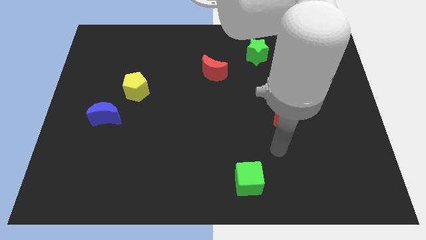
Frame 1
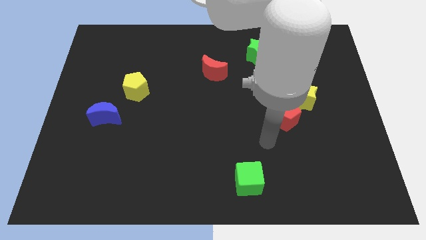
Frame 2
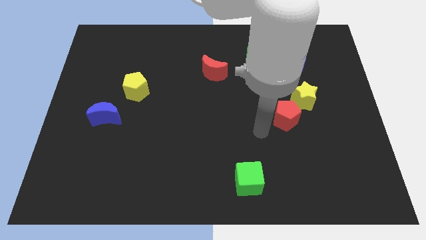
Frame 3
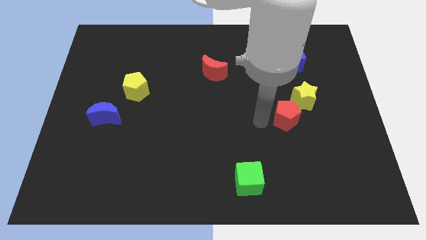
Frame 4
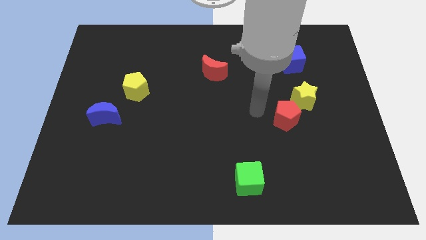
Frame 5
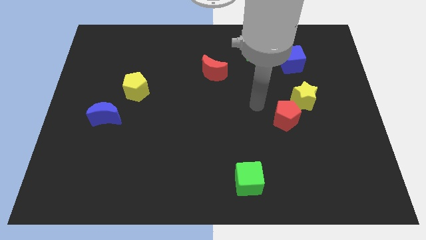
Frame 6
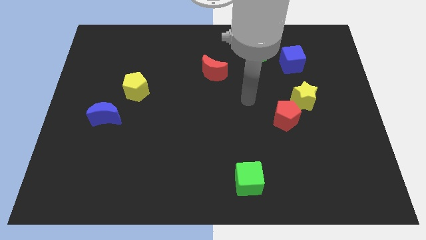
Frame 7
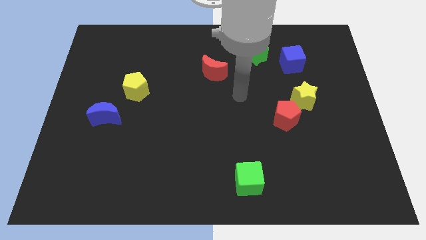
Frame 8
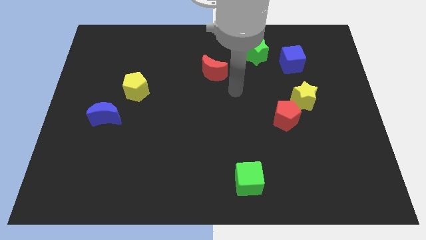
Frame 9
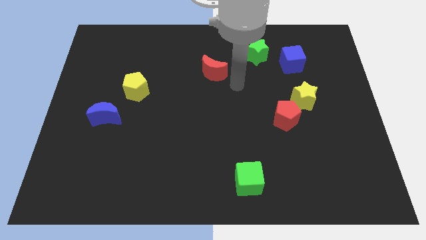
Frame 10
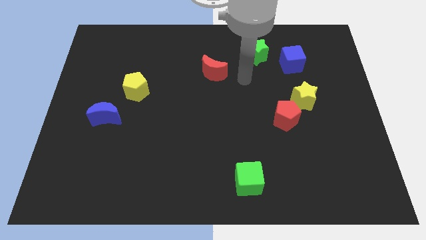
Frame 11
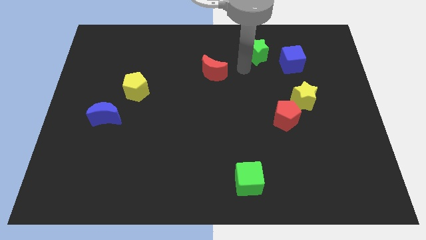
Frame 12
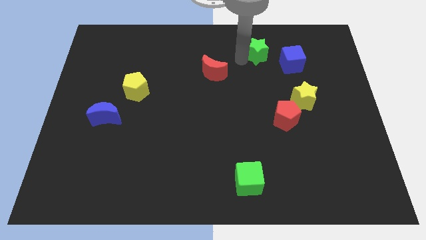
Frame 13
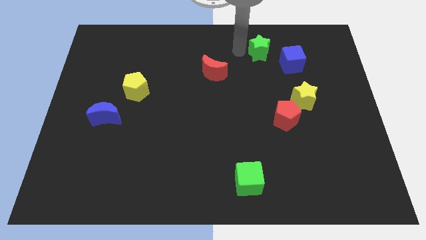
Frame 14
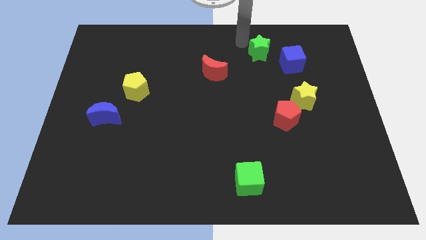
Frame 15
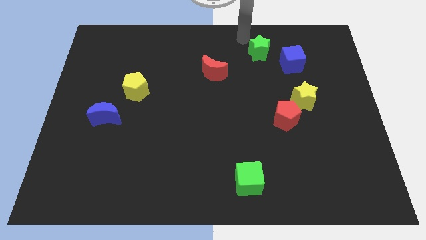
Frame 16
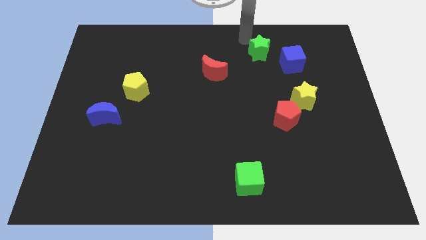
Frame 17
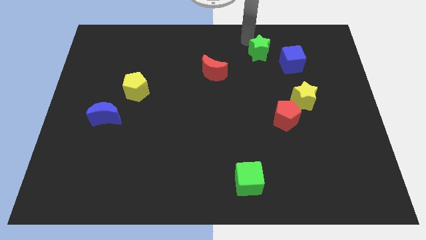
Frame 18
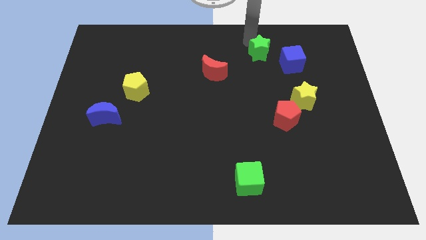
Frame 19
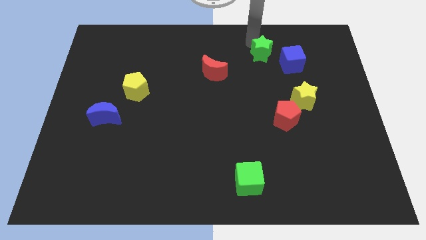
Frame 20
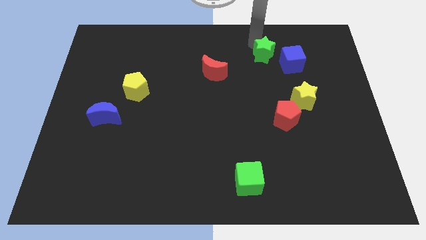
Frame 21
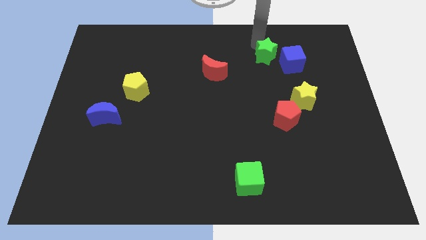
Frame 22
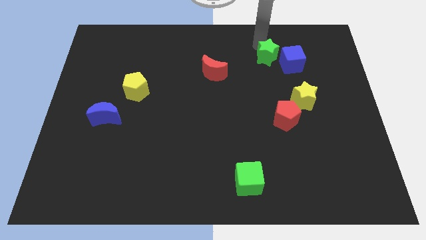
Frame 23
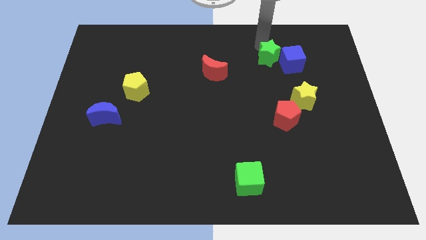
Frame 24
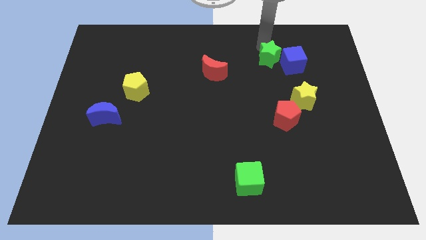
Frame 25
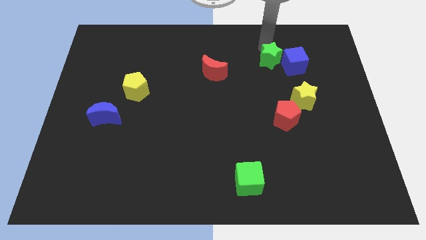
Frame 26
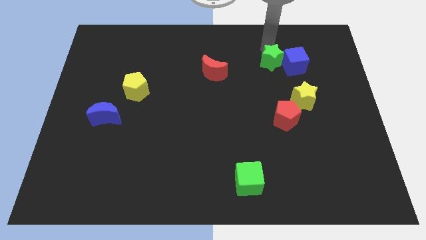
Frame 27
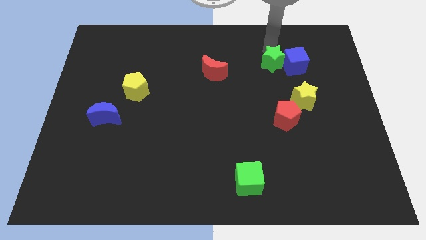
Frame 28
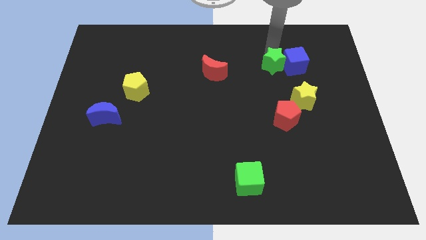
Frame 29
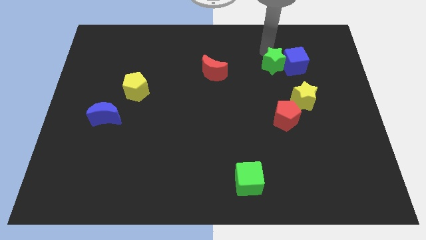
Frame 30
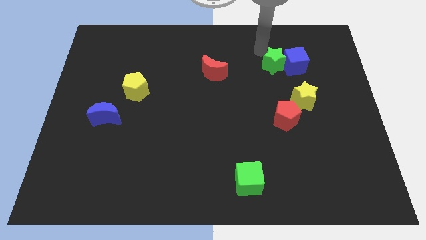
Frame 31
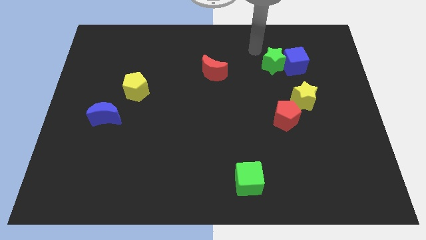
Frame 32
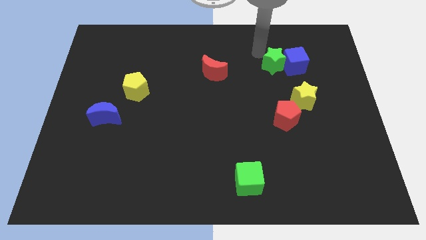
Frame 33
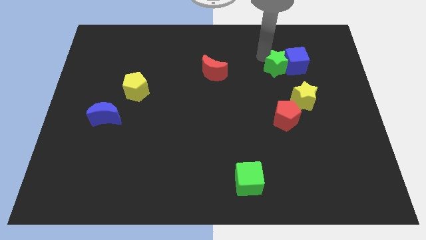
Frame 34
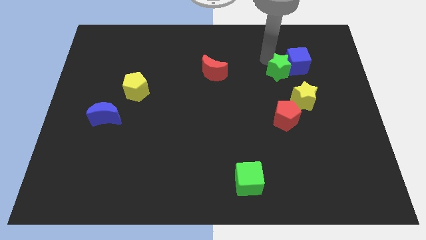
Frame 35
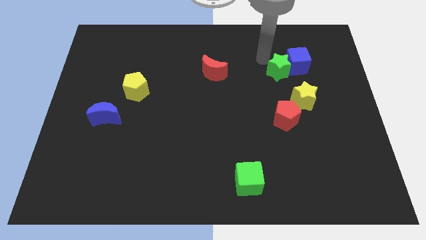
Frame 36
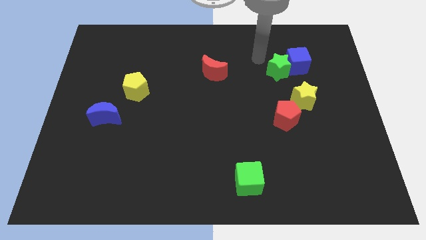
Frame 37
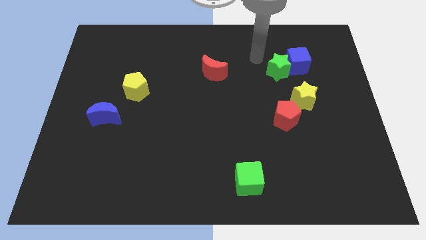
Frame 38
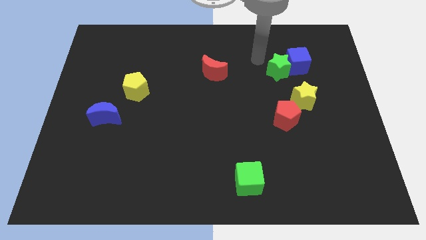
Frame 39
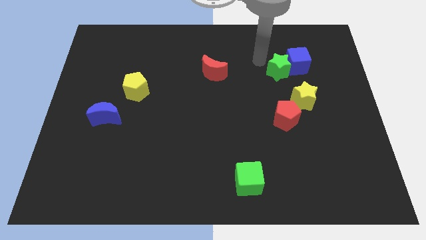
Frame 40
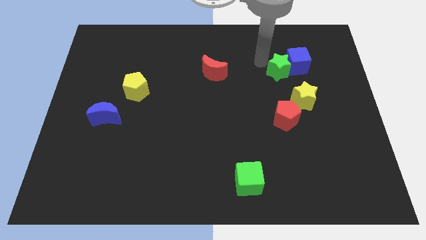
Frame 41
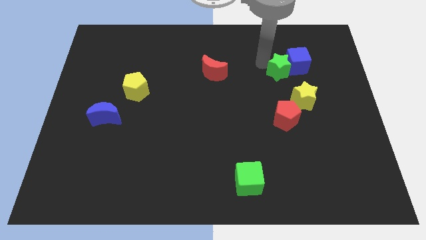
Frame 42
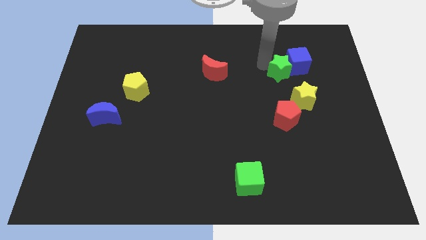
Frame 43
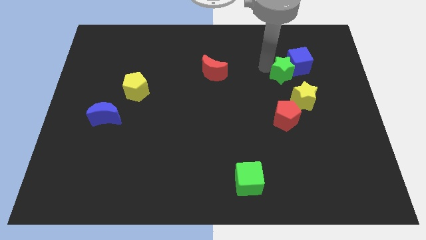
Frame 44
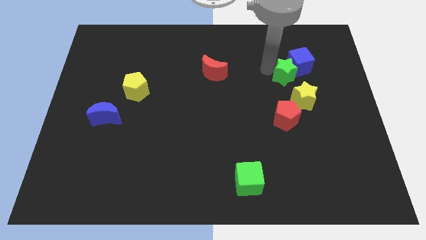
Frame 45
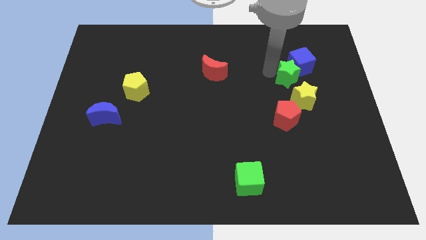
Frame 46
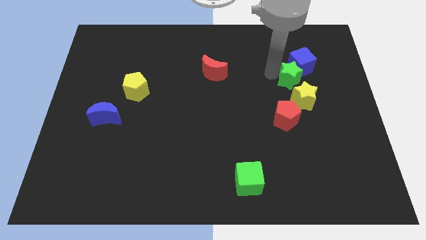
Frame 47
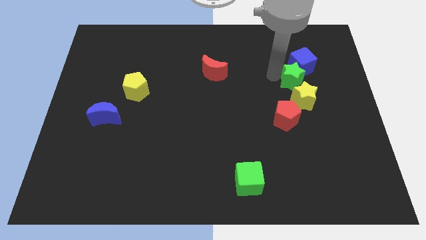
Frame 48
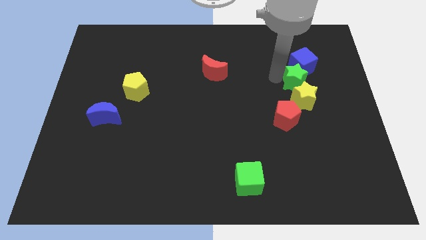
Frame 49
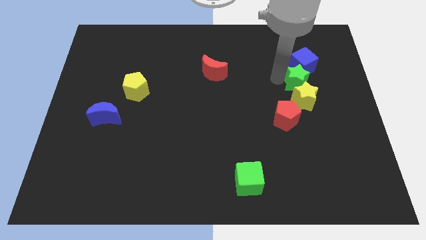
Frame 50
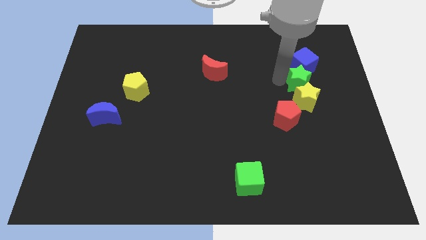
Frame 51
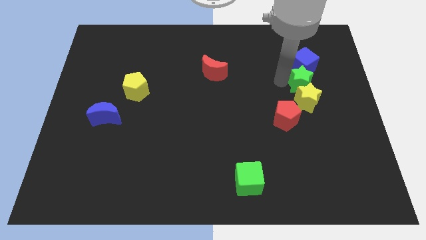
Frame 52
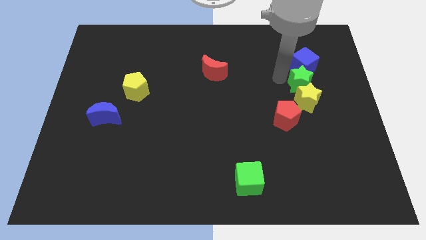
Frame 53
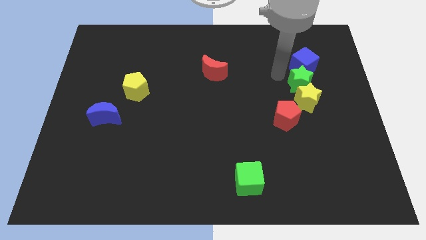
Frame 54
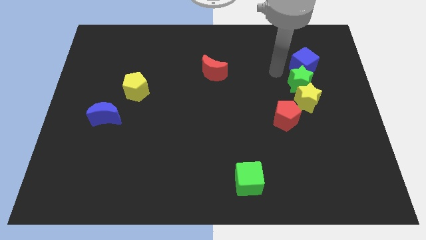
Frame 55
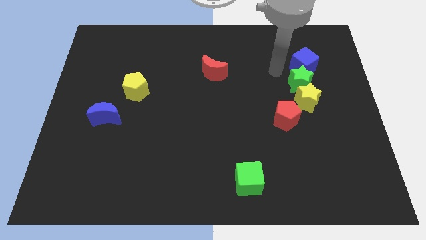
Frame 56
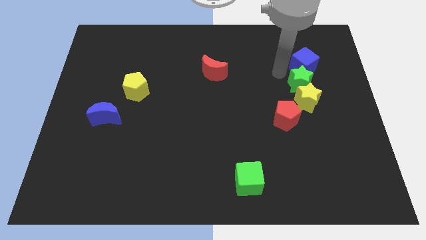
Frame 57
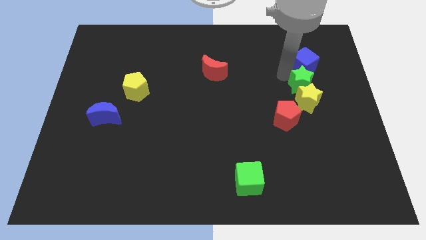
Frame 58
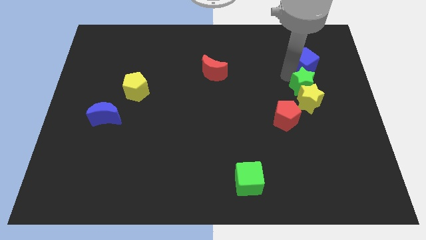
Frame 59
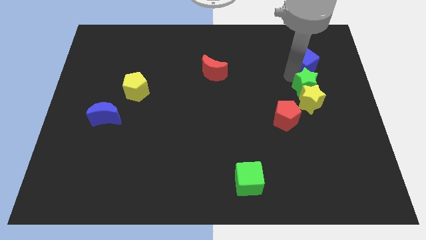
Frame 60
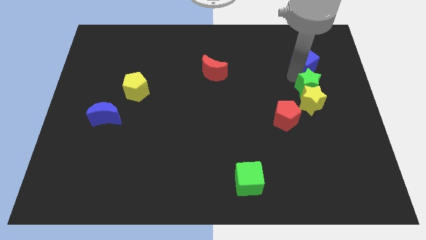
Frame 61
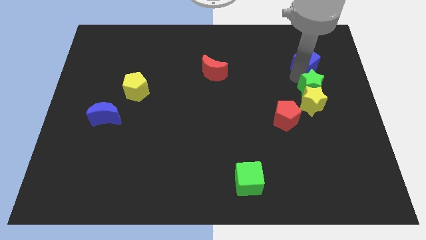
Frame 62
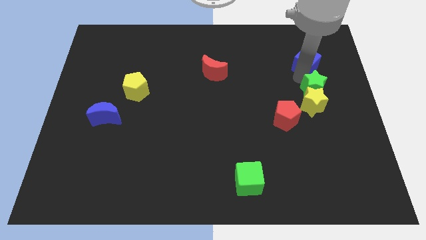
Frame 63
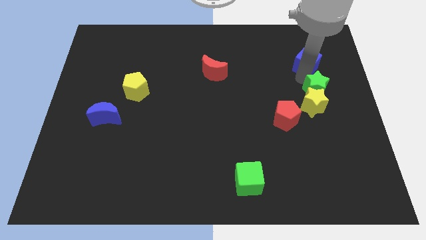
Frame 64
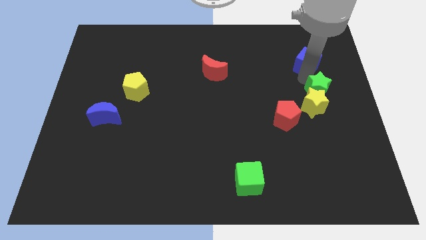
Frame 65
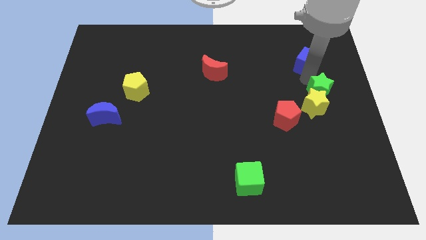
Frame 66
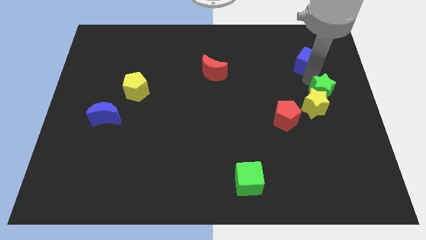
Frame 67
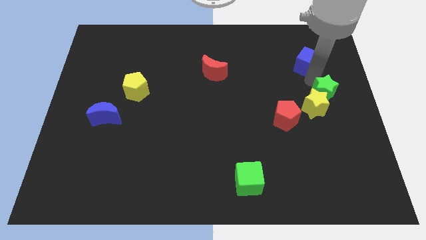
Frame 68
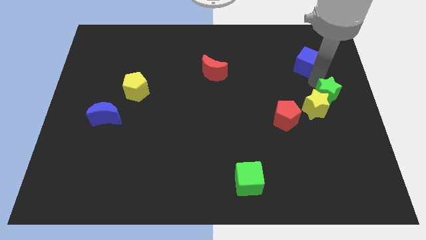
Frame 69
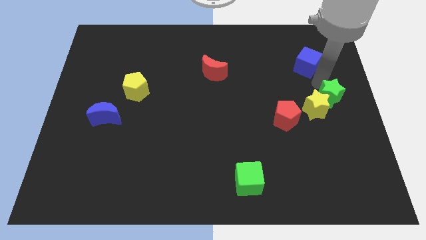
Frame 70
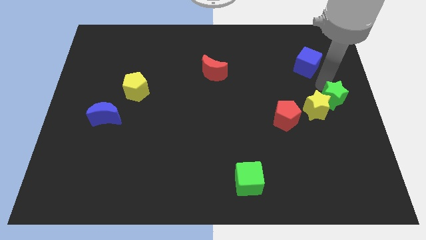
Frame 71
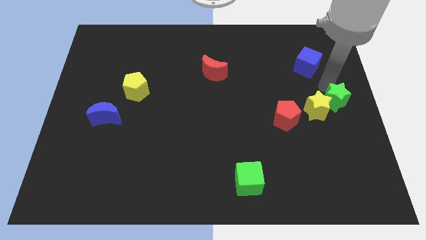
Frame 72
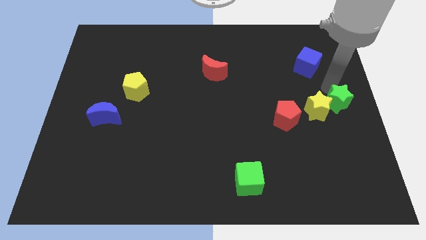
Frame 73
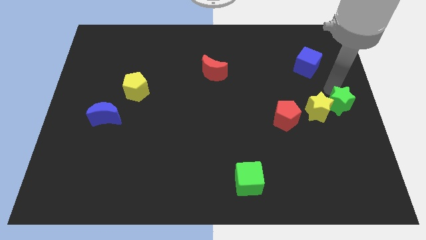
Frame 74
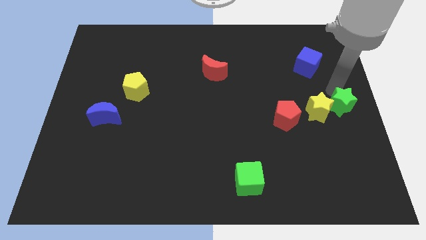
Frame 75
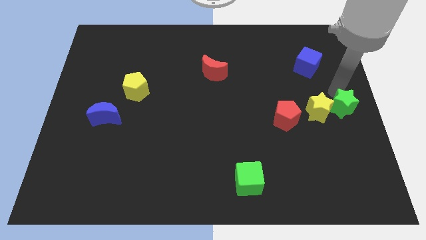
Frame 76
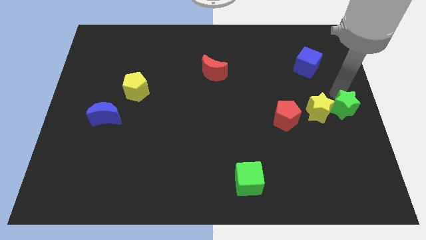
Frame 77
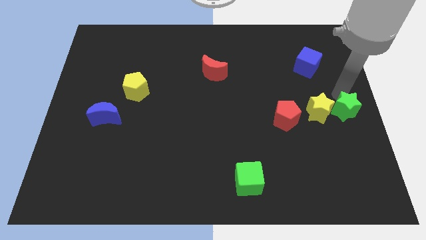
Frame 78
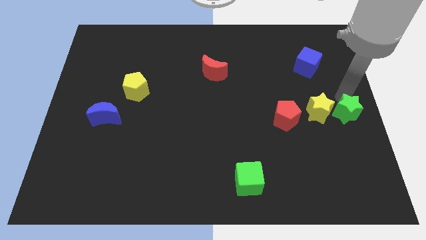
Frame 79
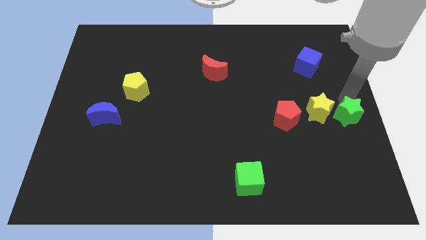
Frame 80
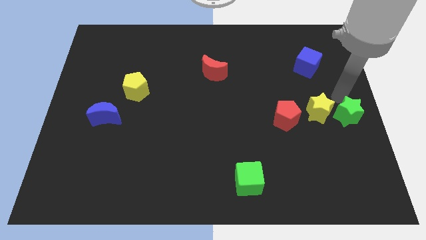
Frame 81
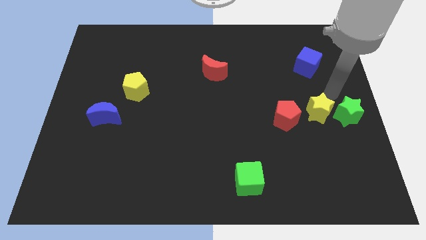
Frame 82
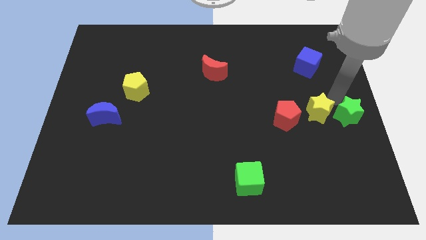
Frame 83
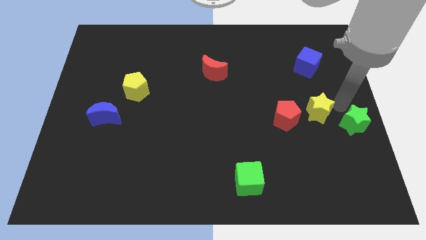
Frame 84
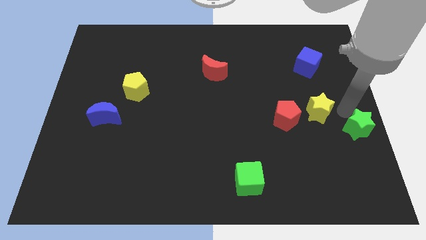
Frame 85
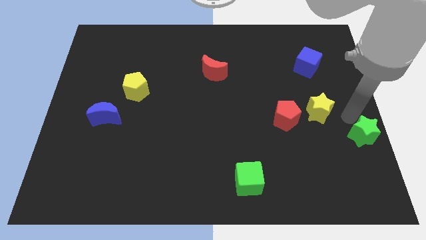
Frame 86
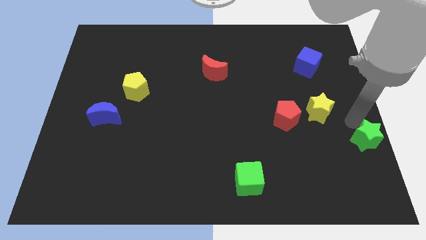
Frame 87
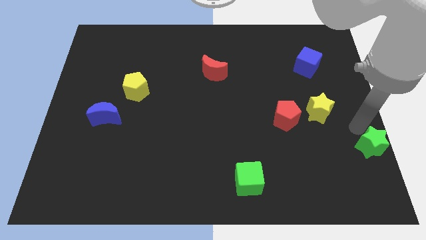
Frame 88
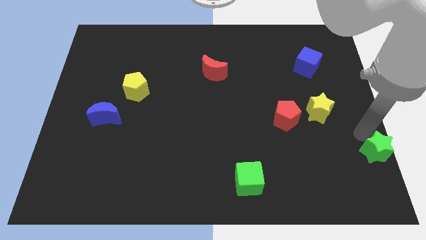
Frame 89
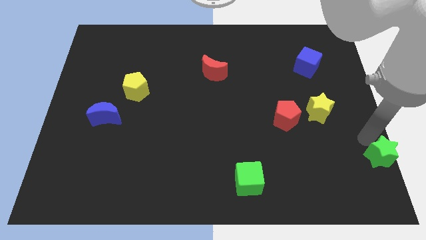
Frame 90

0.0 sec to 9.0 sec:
move the green star to the bottom right
